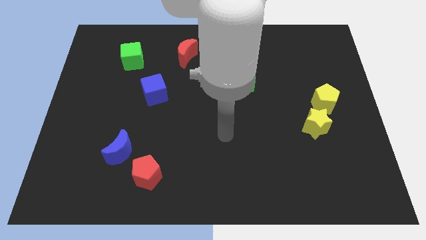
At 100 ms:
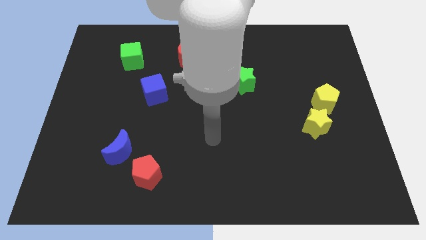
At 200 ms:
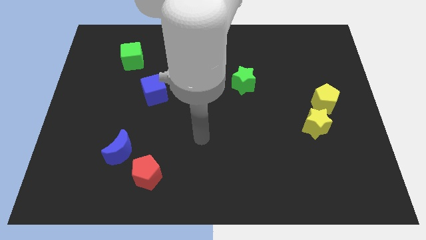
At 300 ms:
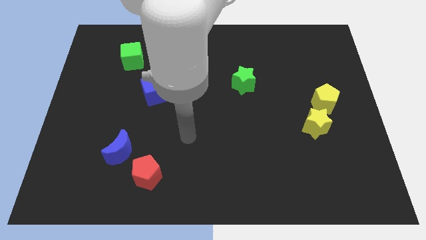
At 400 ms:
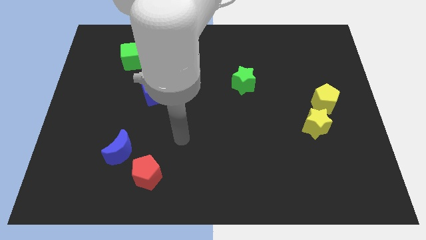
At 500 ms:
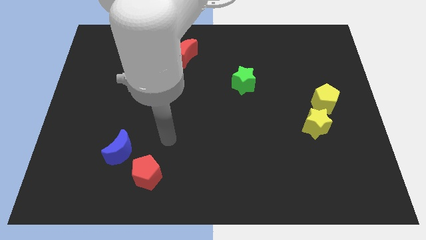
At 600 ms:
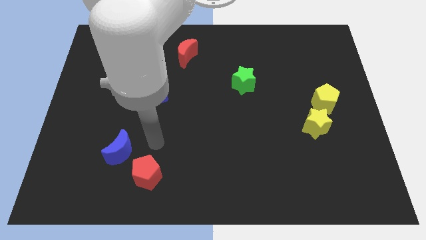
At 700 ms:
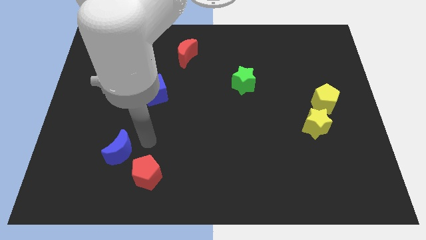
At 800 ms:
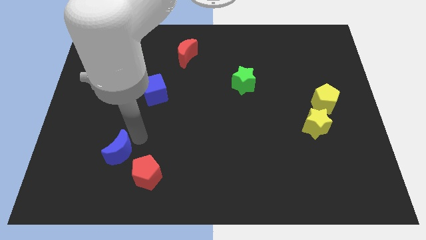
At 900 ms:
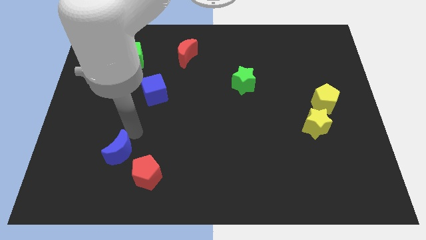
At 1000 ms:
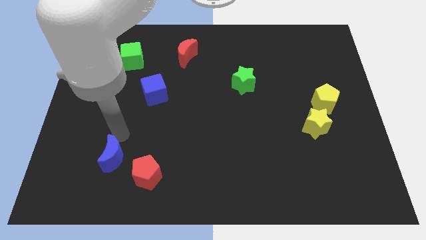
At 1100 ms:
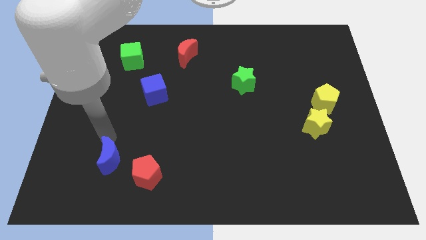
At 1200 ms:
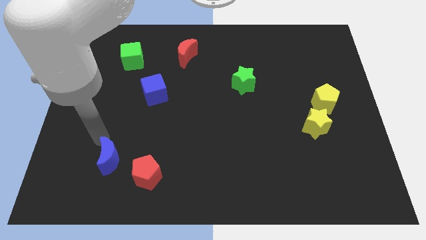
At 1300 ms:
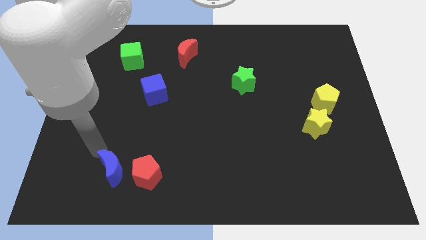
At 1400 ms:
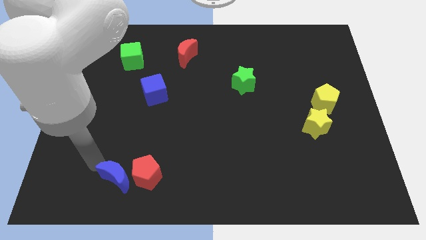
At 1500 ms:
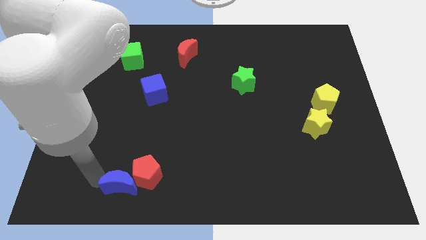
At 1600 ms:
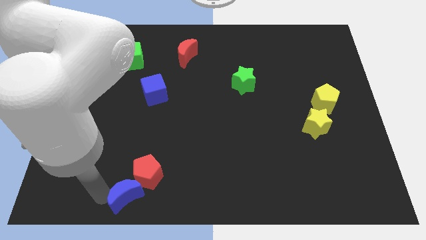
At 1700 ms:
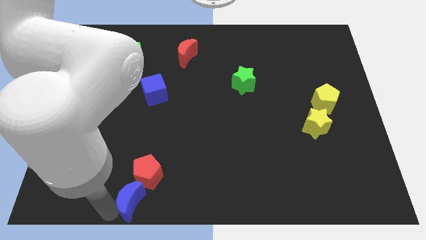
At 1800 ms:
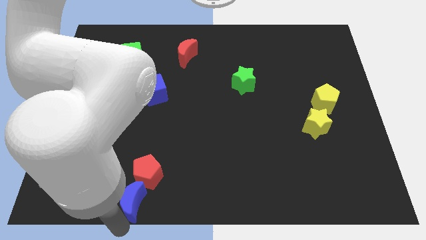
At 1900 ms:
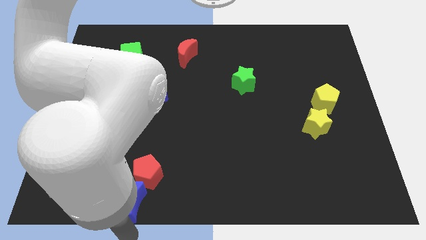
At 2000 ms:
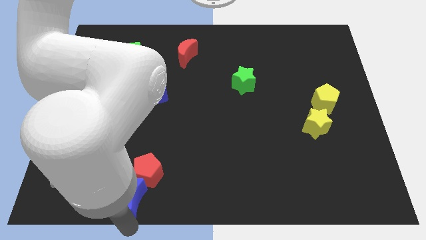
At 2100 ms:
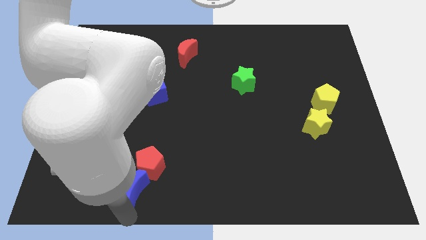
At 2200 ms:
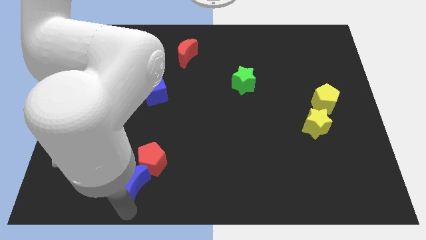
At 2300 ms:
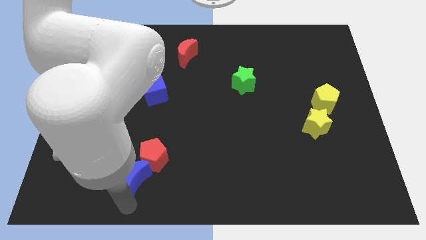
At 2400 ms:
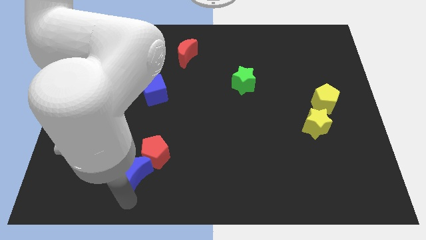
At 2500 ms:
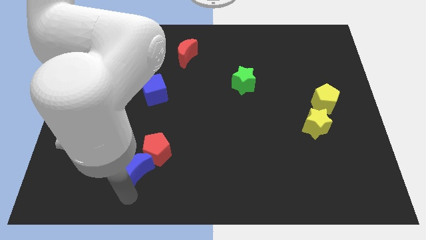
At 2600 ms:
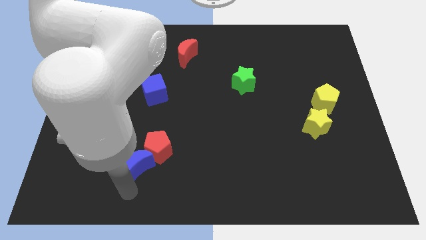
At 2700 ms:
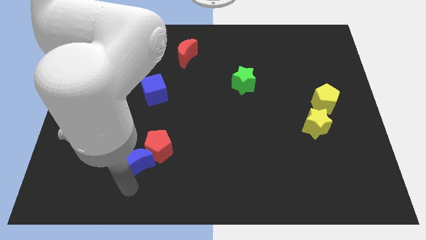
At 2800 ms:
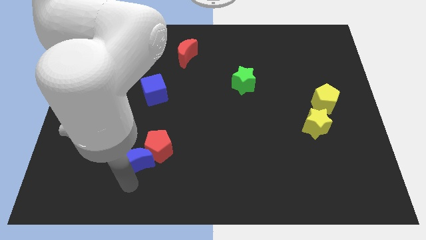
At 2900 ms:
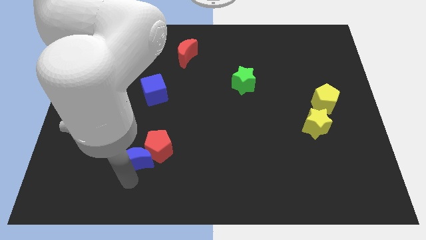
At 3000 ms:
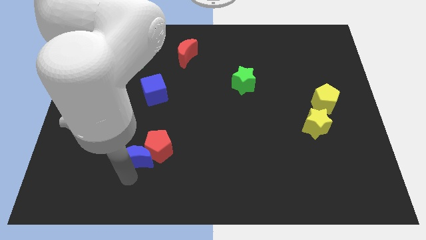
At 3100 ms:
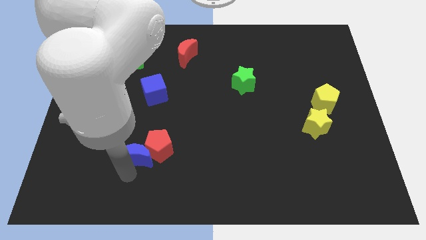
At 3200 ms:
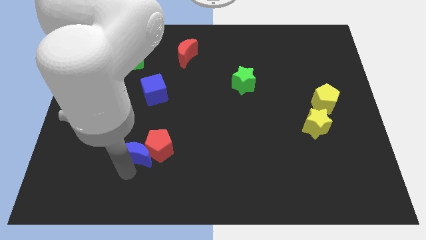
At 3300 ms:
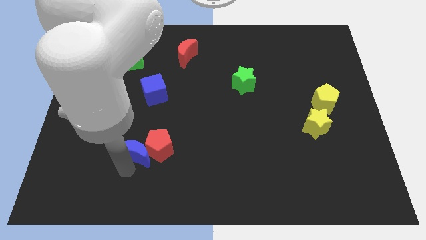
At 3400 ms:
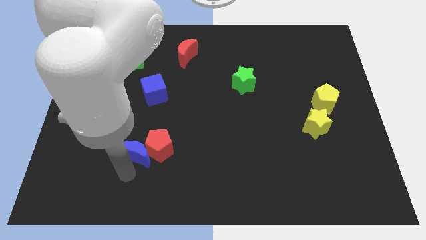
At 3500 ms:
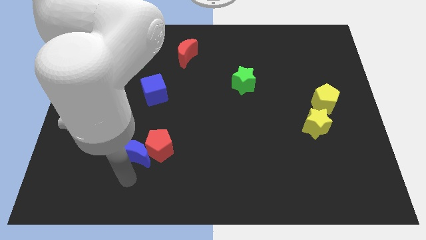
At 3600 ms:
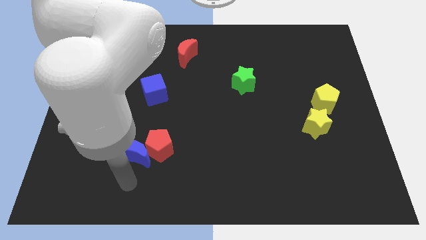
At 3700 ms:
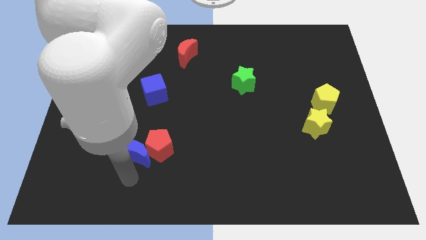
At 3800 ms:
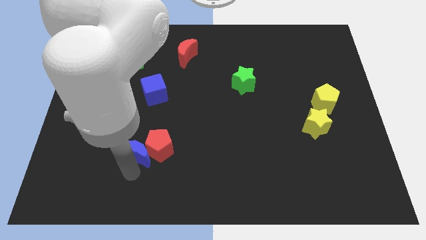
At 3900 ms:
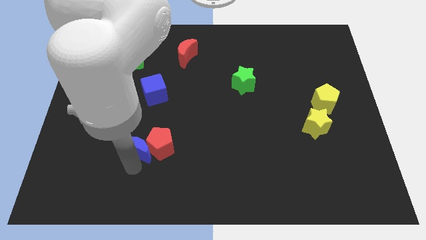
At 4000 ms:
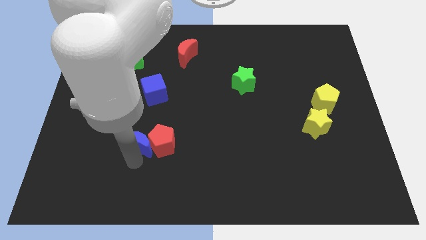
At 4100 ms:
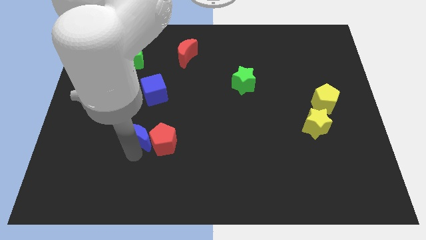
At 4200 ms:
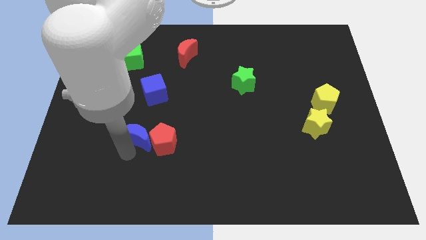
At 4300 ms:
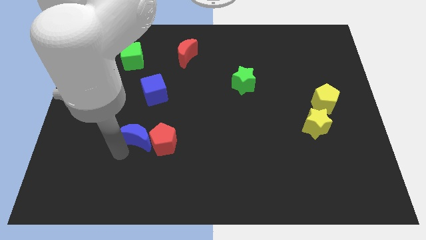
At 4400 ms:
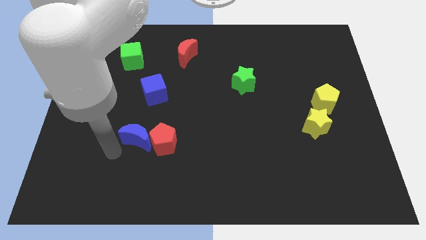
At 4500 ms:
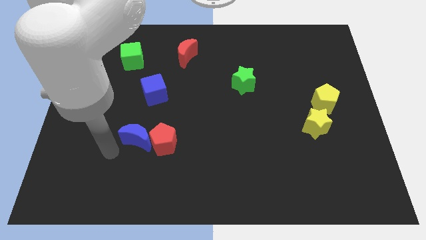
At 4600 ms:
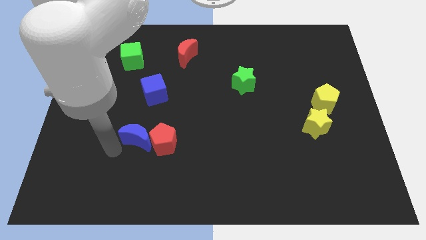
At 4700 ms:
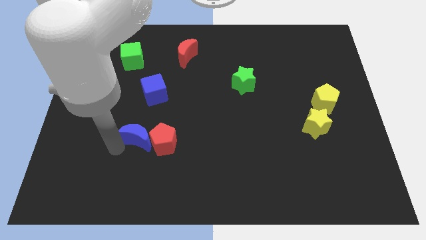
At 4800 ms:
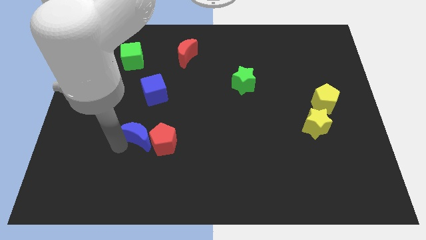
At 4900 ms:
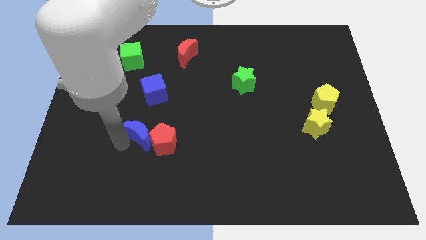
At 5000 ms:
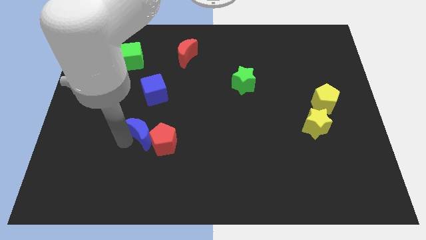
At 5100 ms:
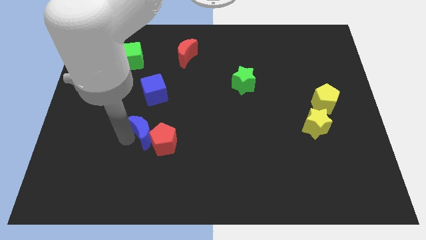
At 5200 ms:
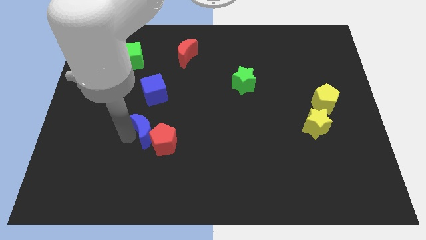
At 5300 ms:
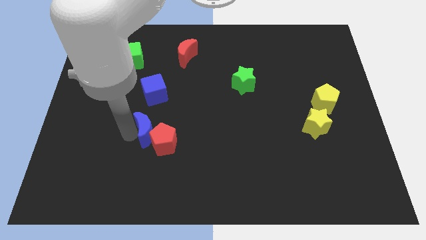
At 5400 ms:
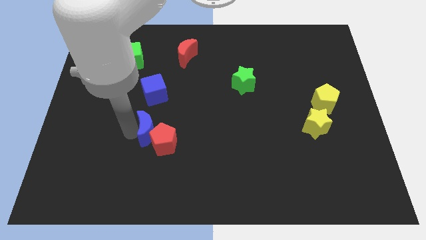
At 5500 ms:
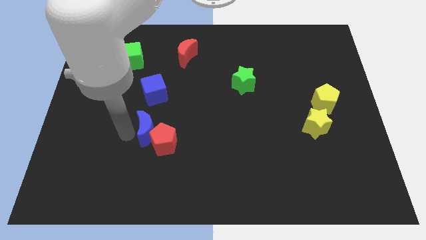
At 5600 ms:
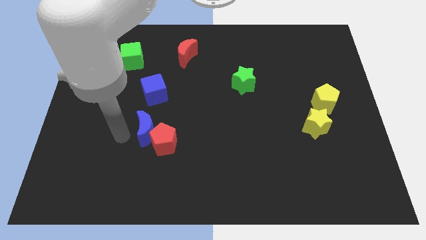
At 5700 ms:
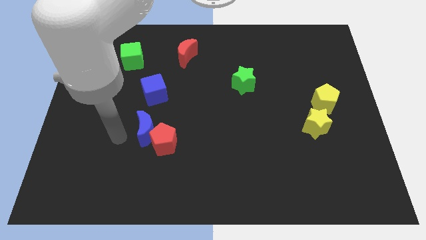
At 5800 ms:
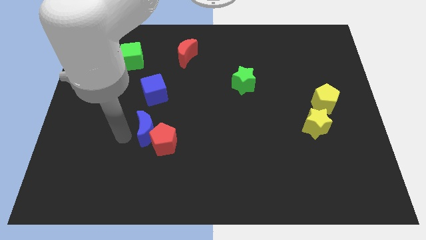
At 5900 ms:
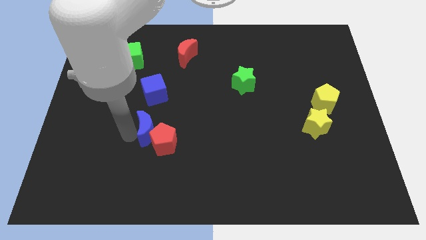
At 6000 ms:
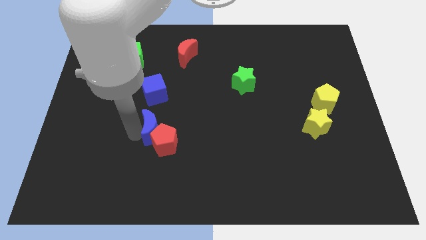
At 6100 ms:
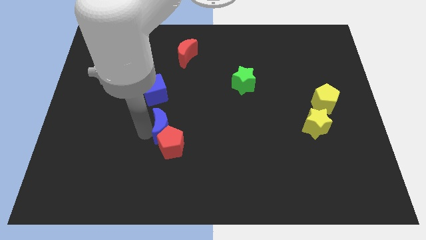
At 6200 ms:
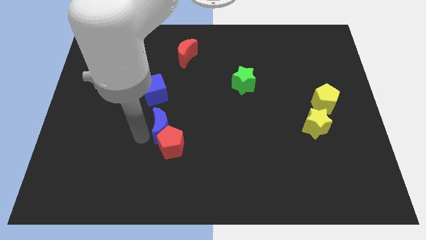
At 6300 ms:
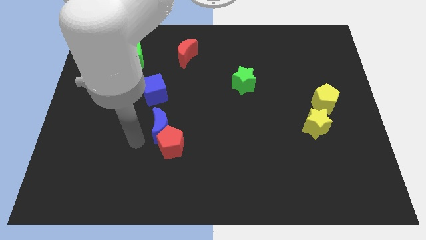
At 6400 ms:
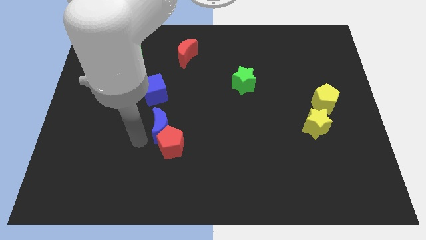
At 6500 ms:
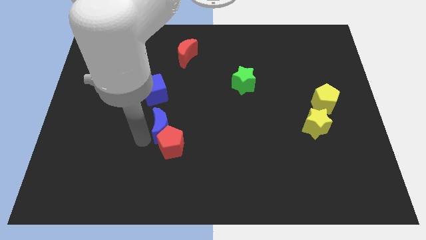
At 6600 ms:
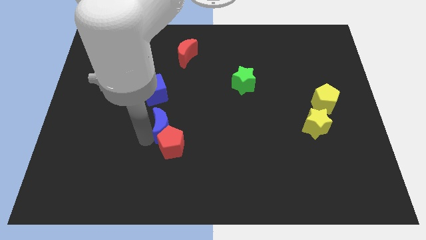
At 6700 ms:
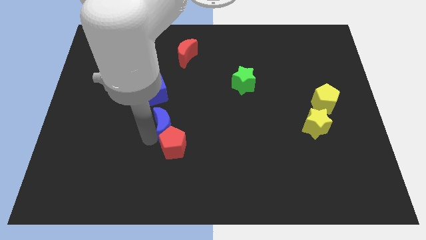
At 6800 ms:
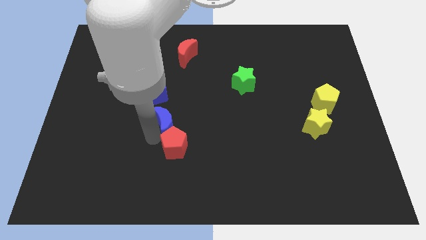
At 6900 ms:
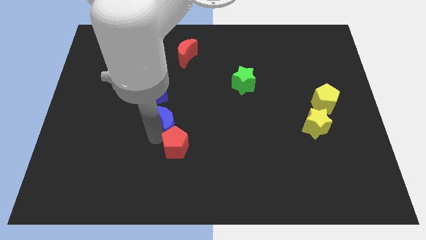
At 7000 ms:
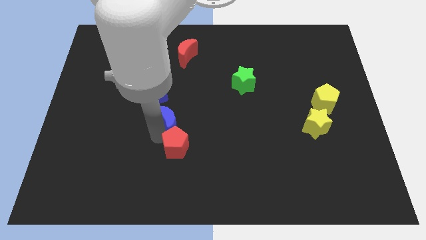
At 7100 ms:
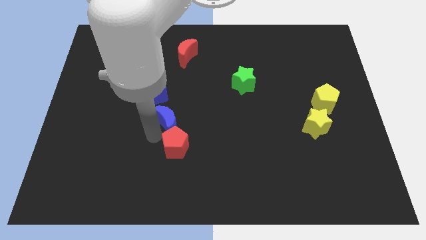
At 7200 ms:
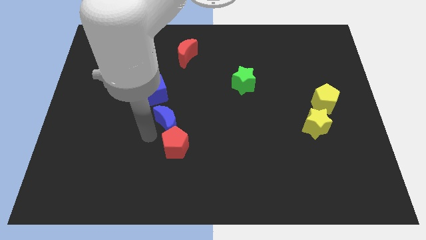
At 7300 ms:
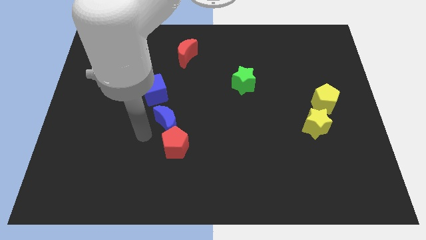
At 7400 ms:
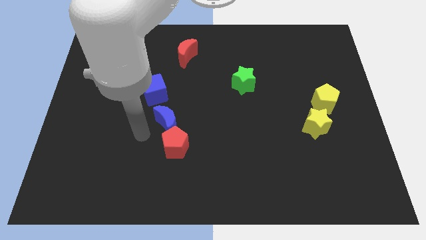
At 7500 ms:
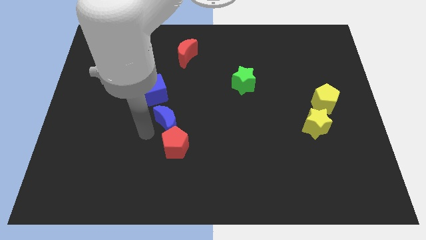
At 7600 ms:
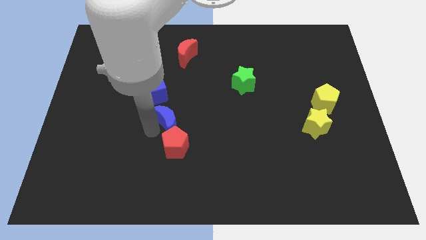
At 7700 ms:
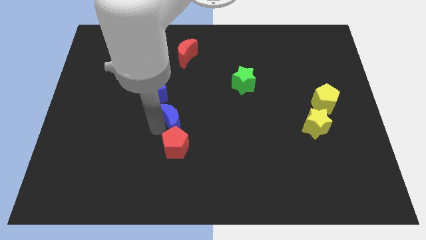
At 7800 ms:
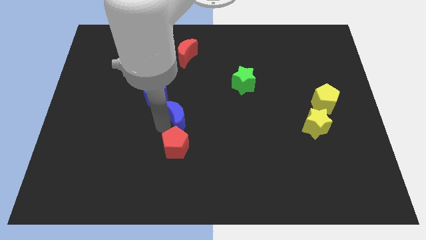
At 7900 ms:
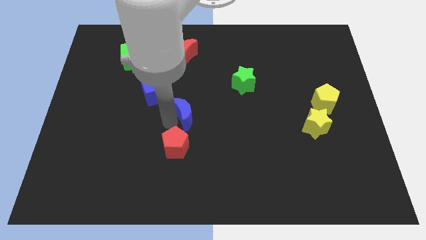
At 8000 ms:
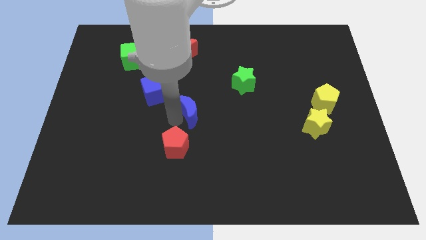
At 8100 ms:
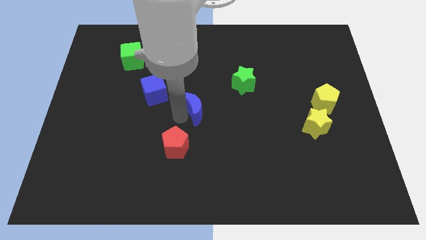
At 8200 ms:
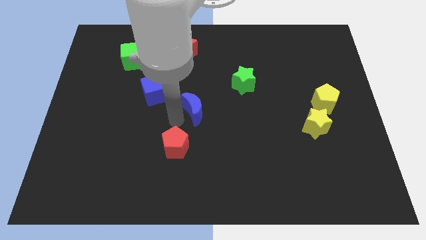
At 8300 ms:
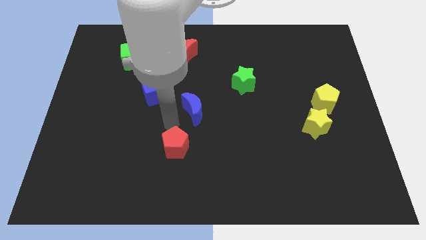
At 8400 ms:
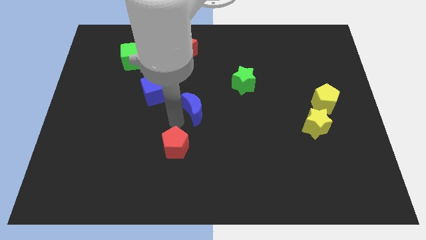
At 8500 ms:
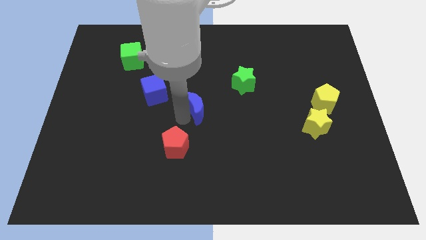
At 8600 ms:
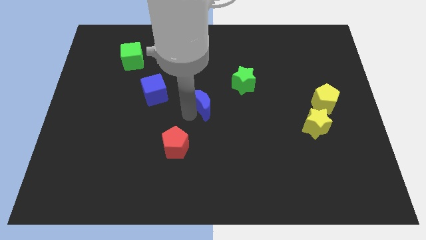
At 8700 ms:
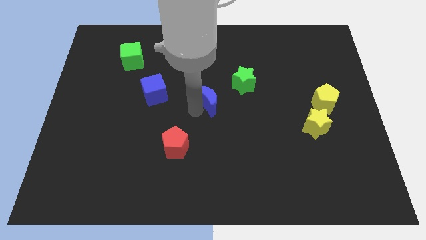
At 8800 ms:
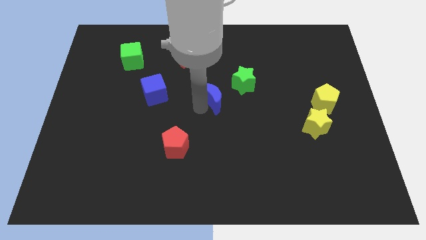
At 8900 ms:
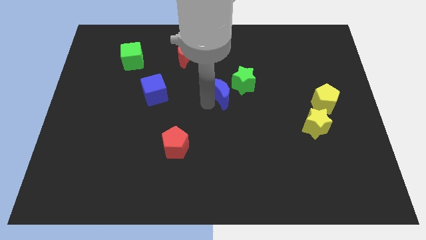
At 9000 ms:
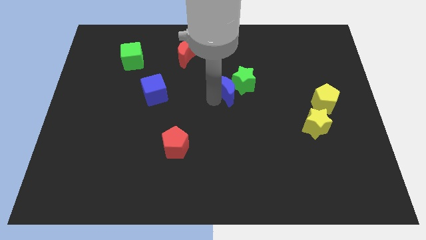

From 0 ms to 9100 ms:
move the blue moon close to the green star
